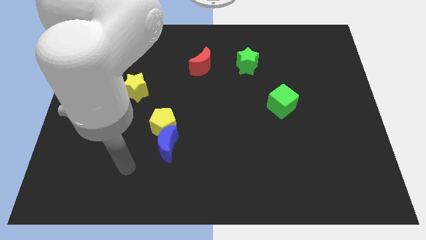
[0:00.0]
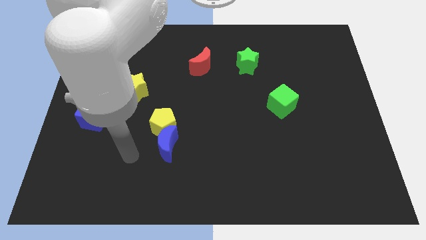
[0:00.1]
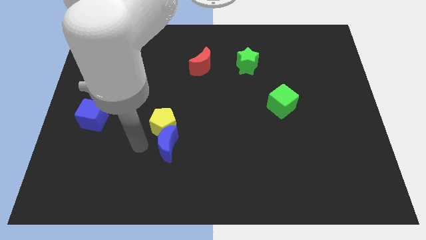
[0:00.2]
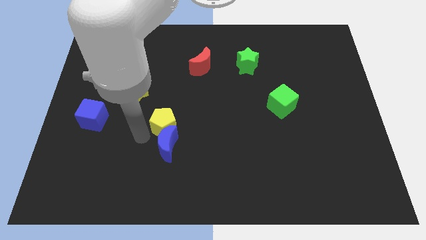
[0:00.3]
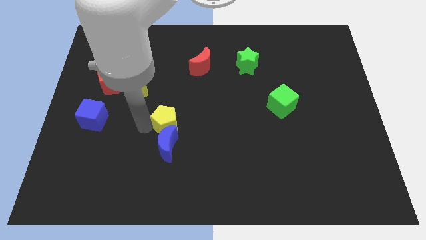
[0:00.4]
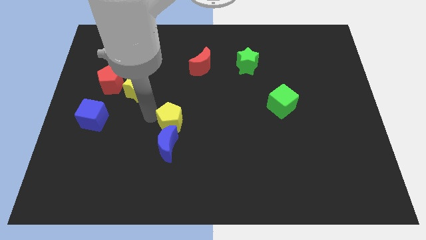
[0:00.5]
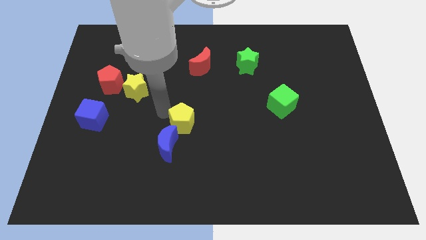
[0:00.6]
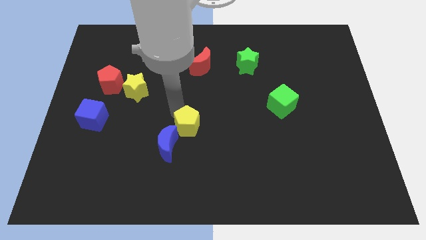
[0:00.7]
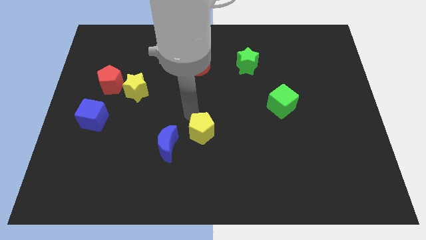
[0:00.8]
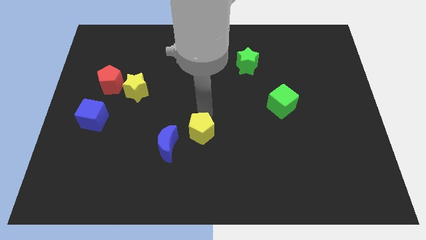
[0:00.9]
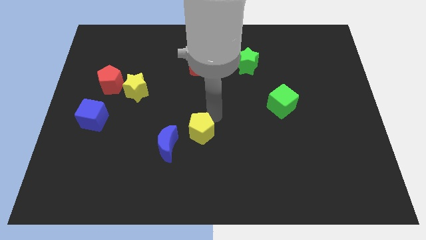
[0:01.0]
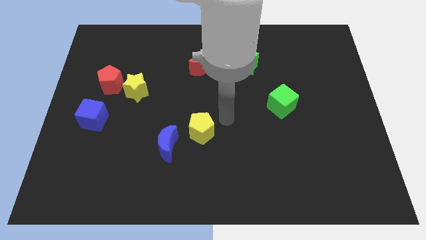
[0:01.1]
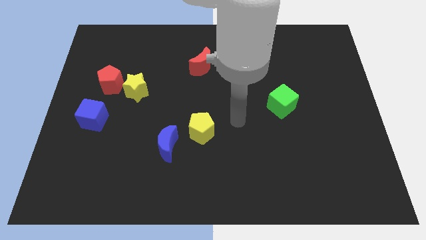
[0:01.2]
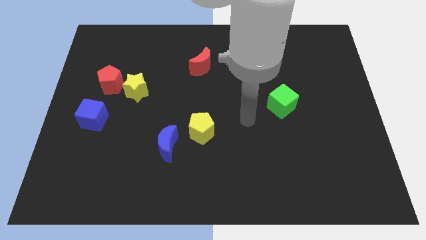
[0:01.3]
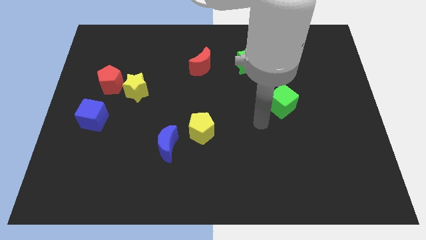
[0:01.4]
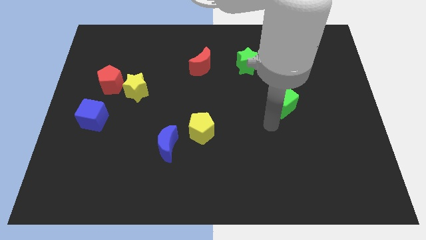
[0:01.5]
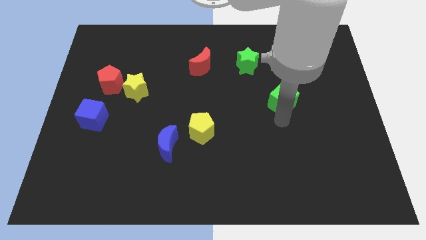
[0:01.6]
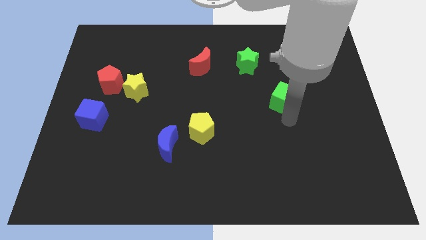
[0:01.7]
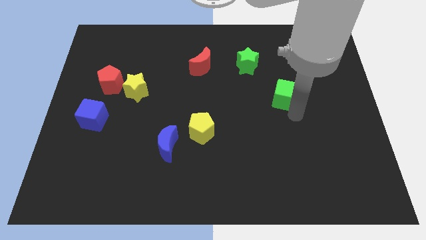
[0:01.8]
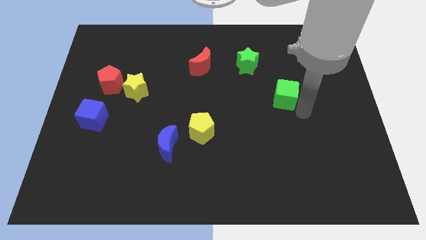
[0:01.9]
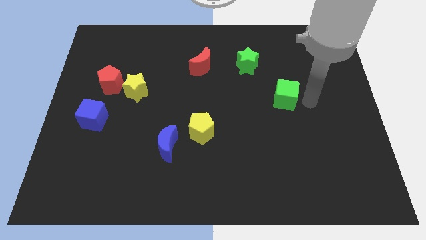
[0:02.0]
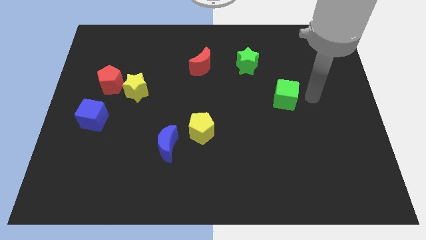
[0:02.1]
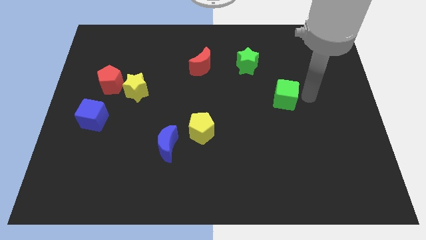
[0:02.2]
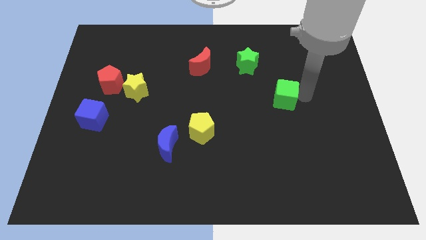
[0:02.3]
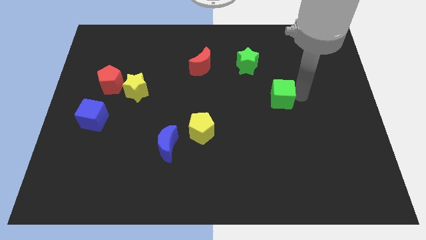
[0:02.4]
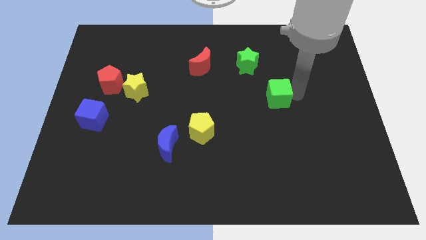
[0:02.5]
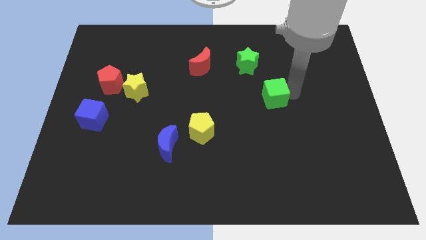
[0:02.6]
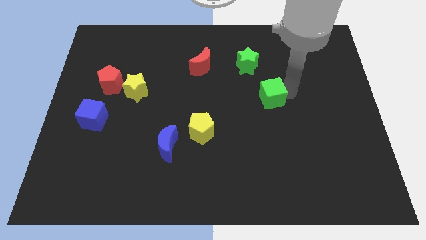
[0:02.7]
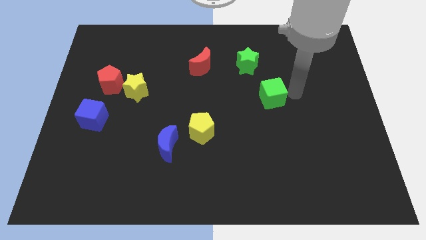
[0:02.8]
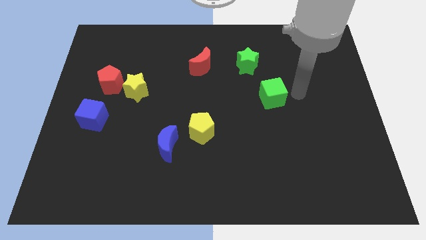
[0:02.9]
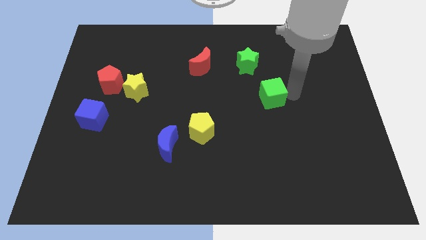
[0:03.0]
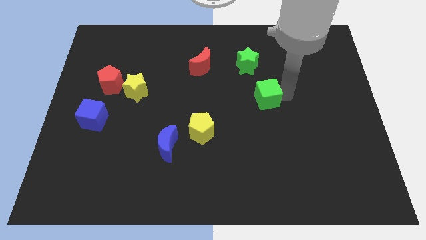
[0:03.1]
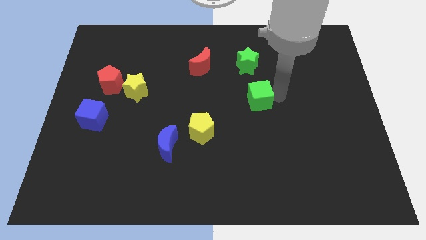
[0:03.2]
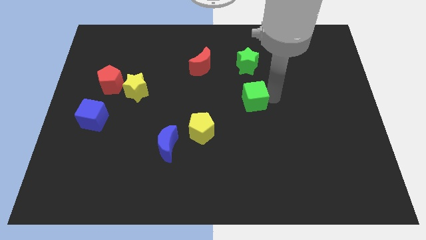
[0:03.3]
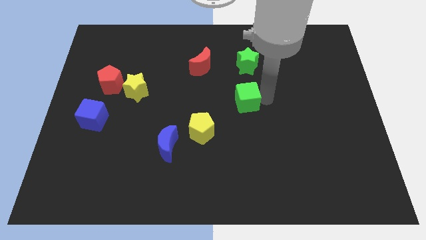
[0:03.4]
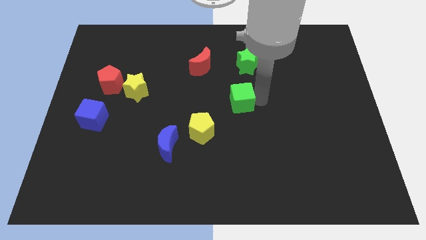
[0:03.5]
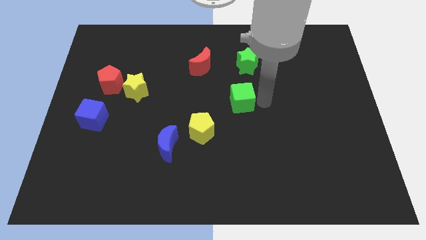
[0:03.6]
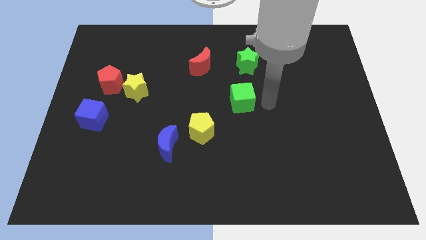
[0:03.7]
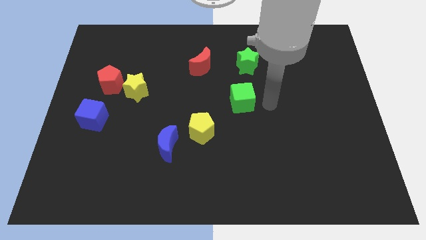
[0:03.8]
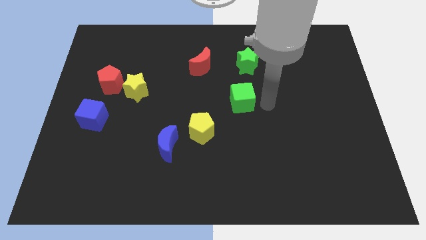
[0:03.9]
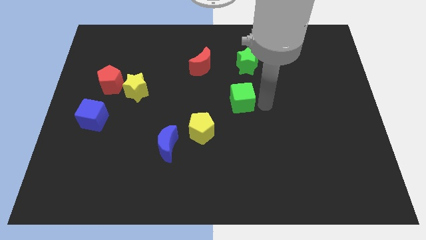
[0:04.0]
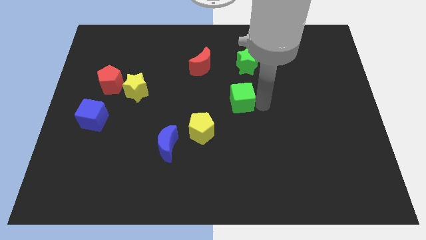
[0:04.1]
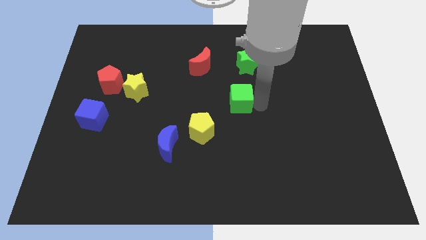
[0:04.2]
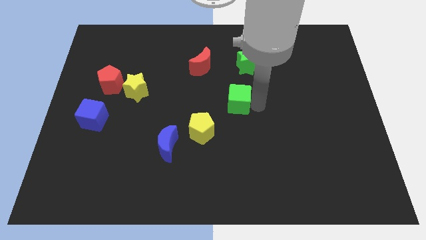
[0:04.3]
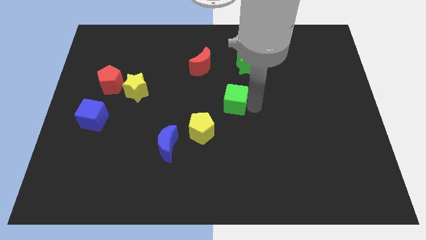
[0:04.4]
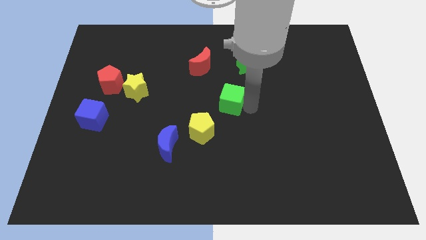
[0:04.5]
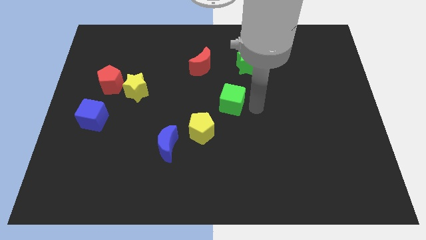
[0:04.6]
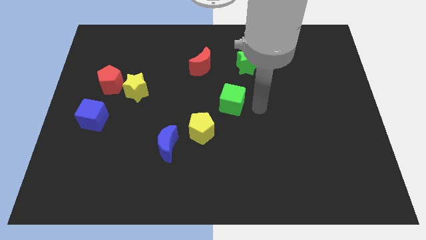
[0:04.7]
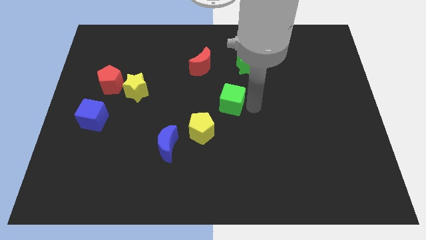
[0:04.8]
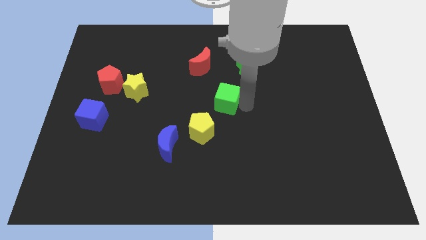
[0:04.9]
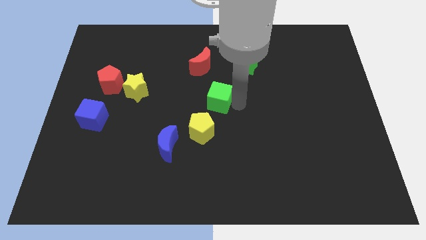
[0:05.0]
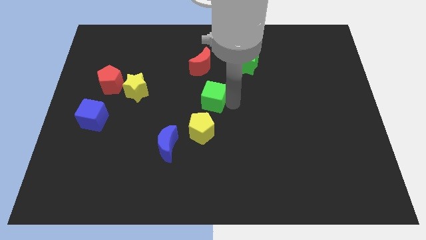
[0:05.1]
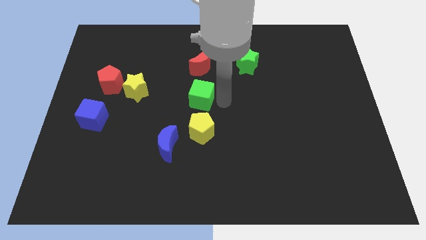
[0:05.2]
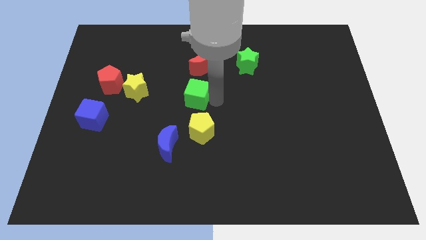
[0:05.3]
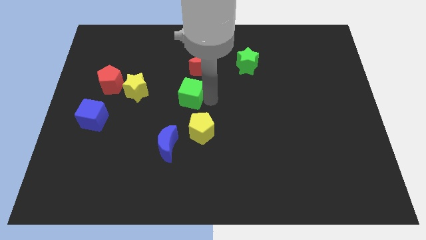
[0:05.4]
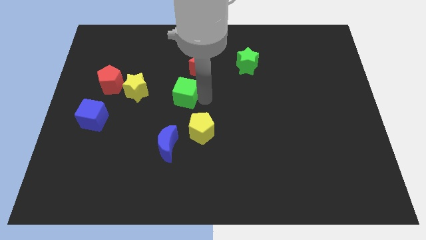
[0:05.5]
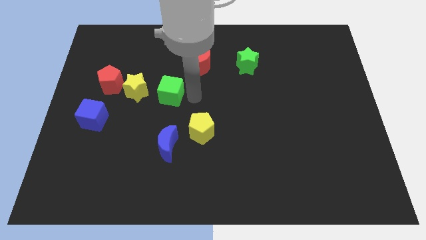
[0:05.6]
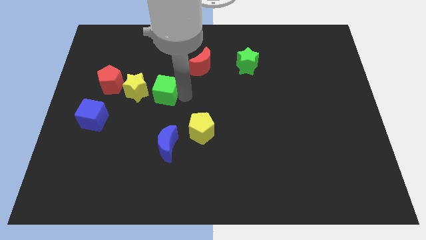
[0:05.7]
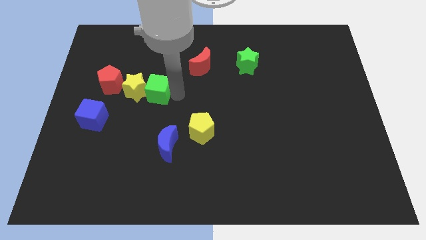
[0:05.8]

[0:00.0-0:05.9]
move the green cube towards the yellow star

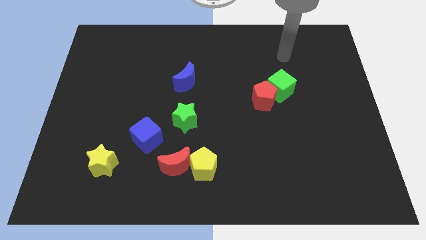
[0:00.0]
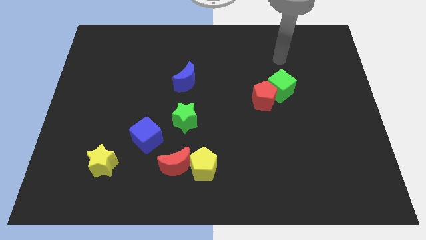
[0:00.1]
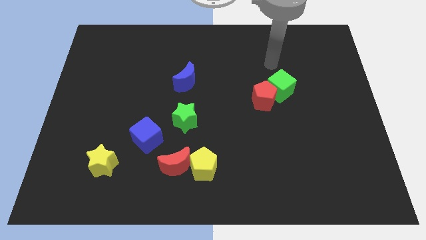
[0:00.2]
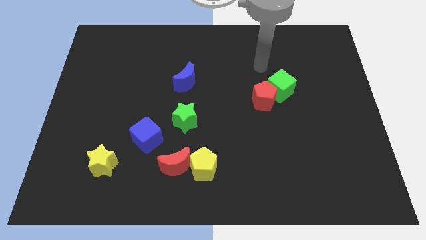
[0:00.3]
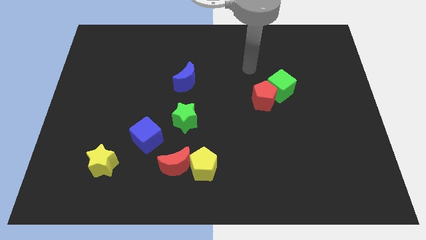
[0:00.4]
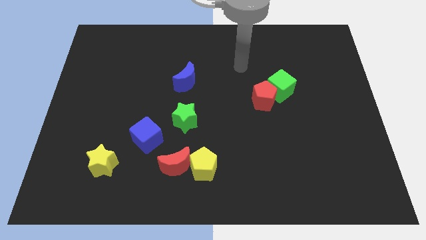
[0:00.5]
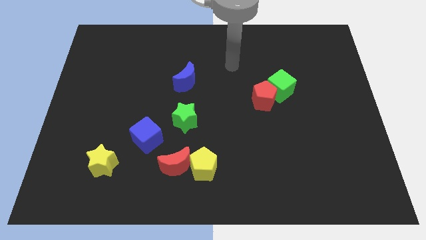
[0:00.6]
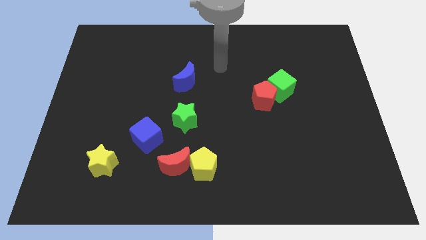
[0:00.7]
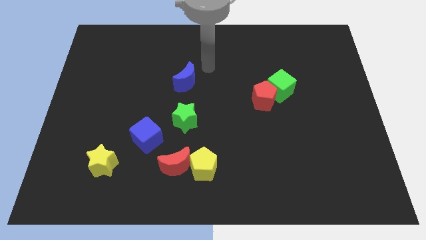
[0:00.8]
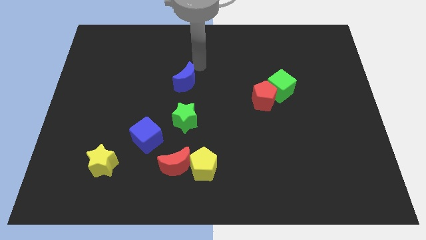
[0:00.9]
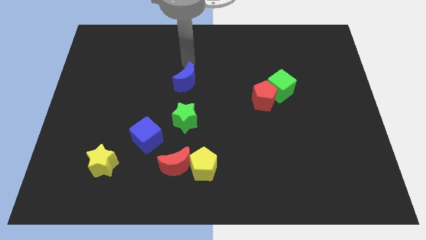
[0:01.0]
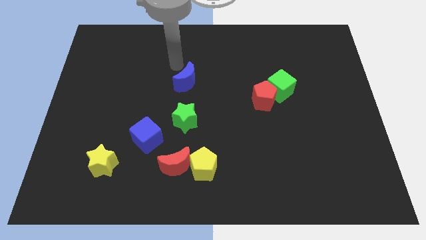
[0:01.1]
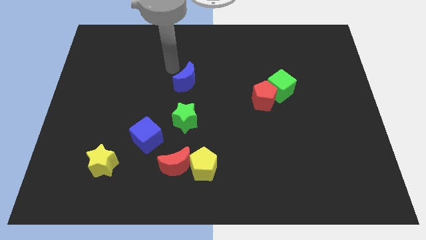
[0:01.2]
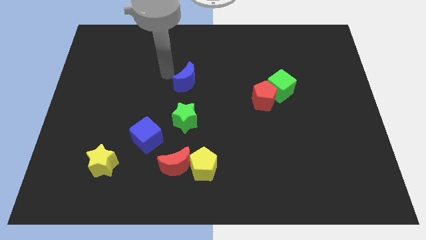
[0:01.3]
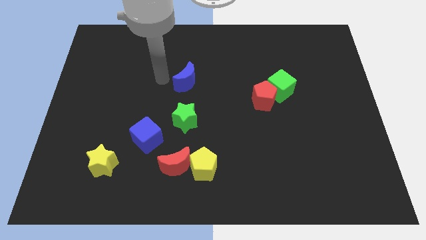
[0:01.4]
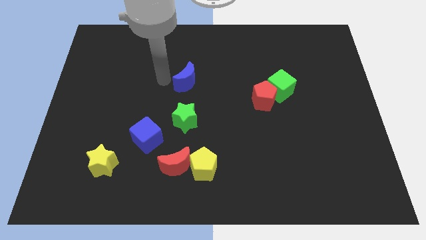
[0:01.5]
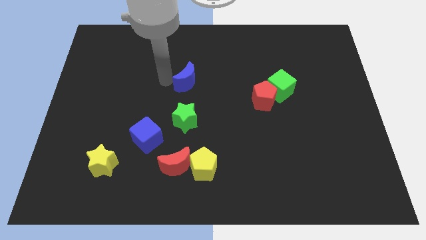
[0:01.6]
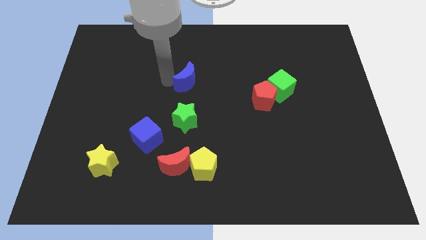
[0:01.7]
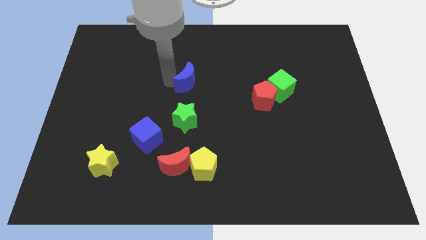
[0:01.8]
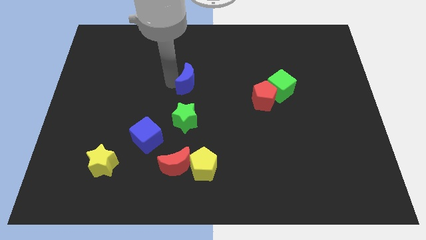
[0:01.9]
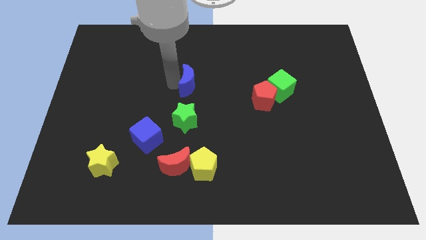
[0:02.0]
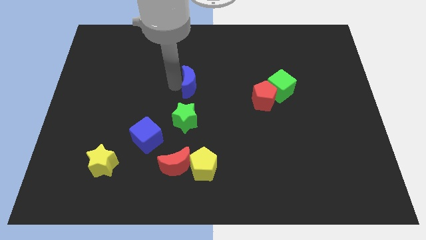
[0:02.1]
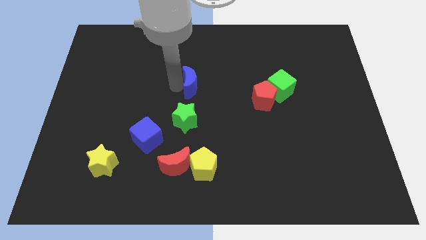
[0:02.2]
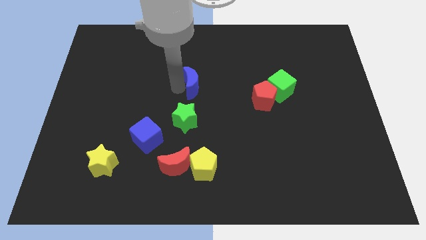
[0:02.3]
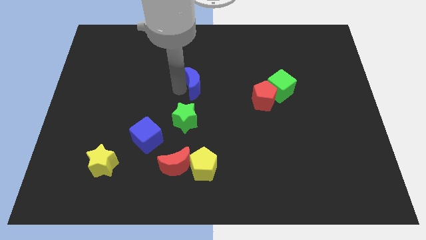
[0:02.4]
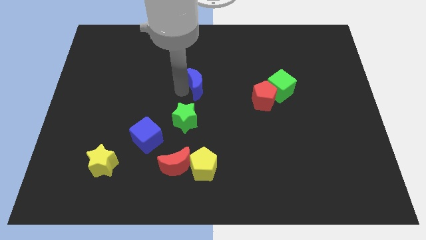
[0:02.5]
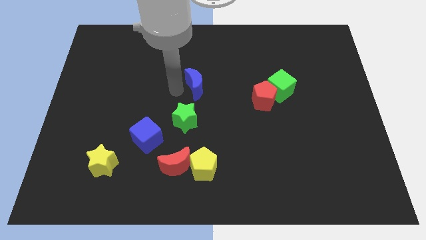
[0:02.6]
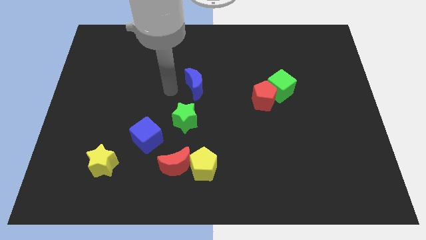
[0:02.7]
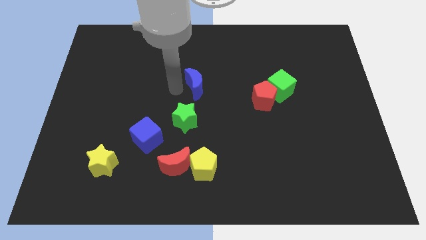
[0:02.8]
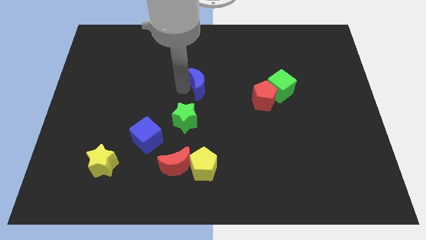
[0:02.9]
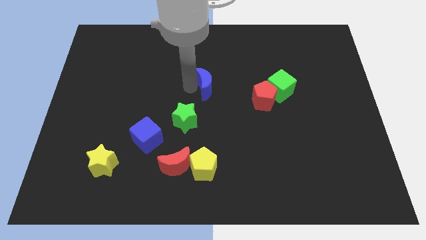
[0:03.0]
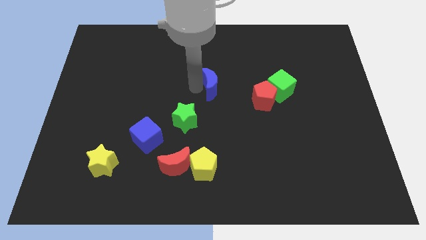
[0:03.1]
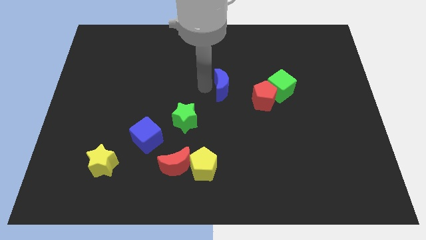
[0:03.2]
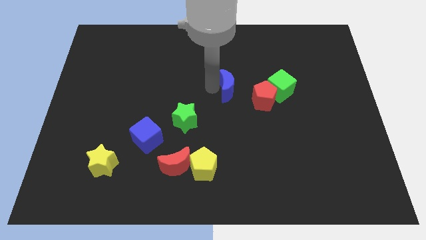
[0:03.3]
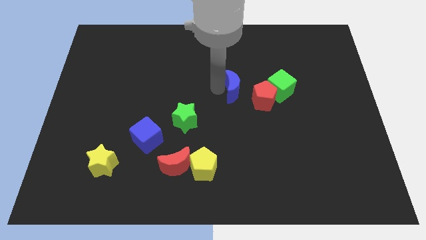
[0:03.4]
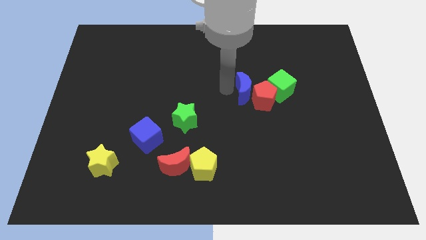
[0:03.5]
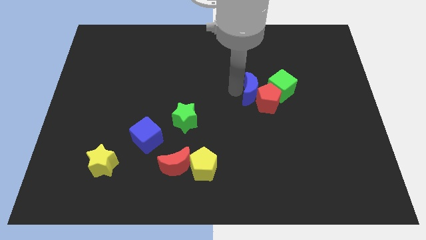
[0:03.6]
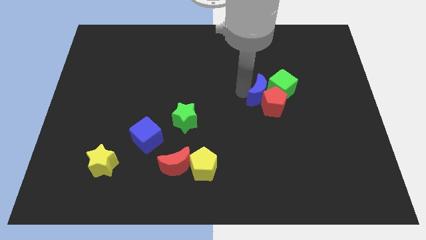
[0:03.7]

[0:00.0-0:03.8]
push the blue moon to the green cube
